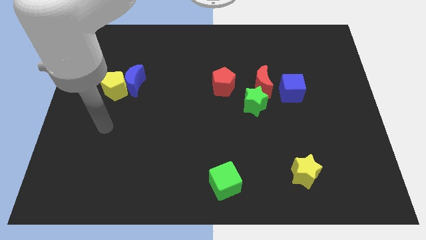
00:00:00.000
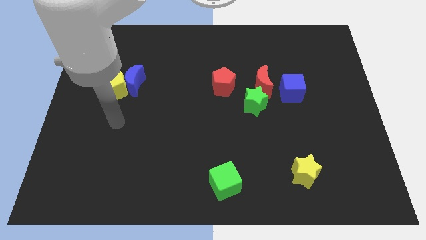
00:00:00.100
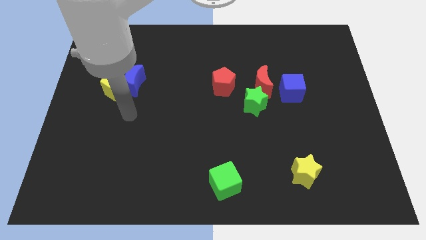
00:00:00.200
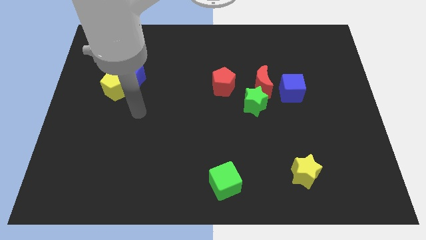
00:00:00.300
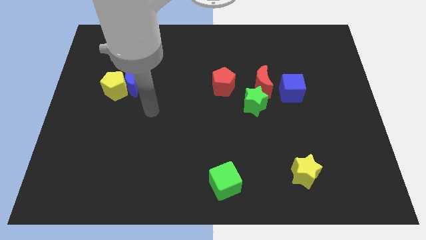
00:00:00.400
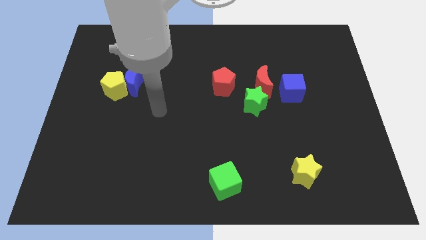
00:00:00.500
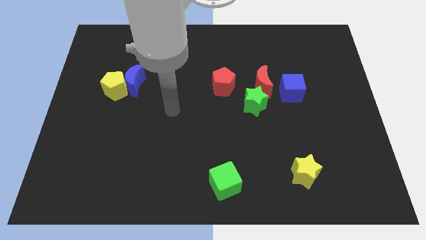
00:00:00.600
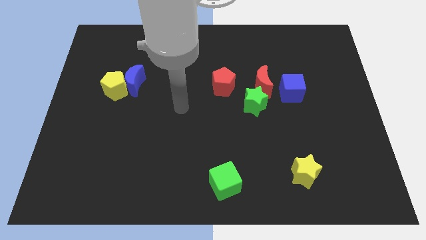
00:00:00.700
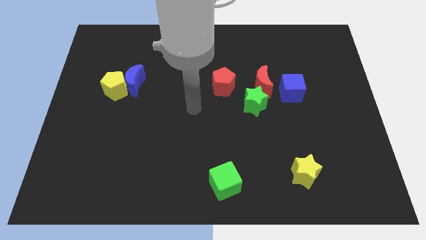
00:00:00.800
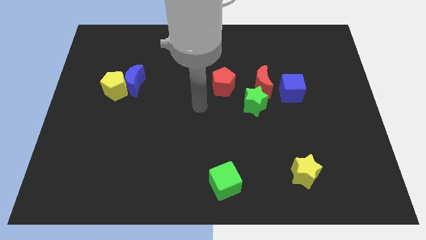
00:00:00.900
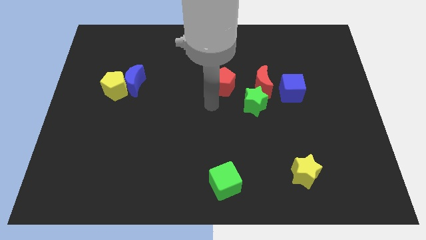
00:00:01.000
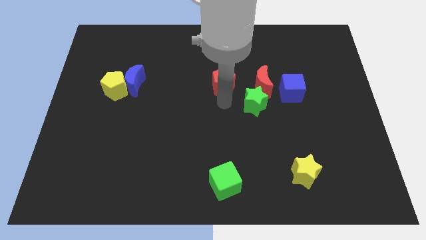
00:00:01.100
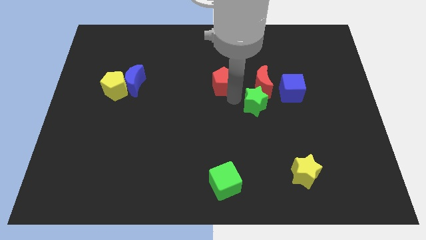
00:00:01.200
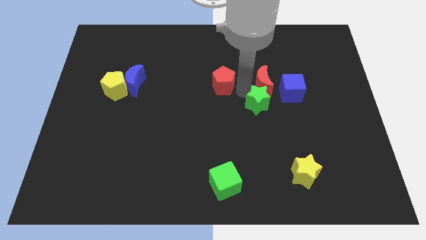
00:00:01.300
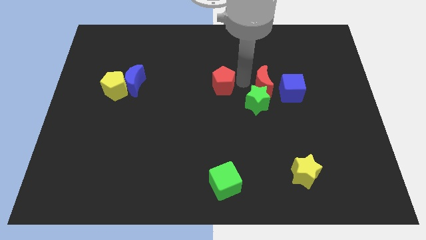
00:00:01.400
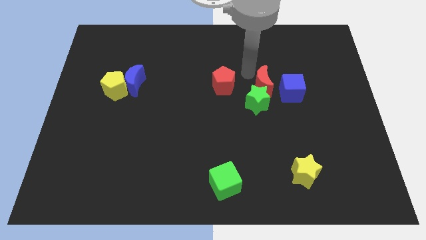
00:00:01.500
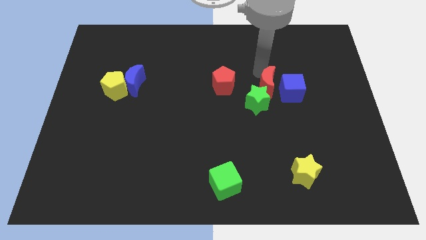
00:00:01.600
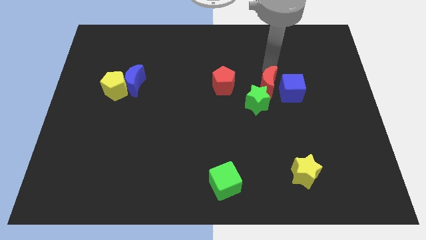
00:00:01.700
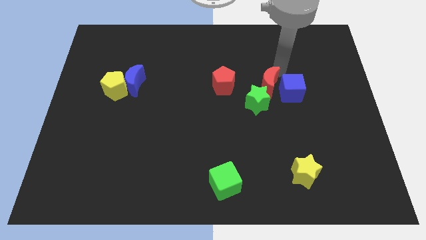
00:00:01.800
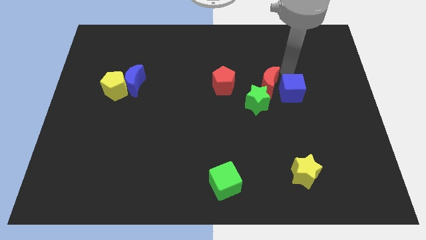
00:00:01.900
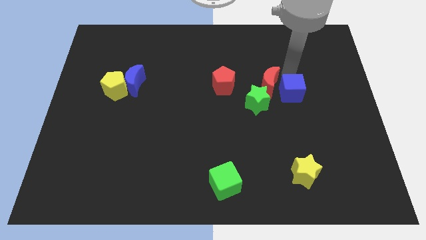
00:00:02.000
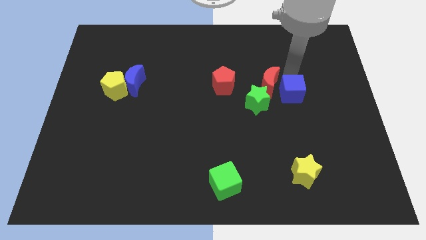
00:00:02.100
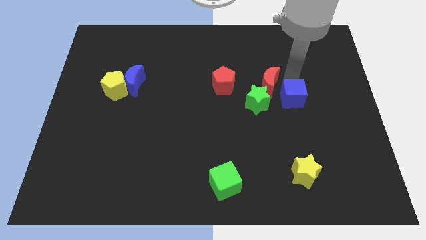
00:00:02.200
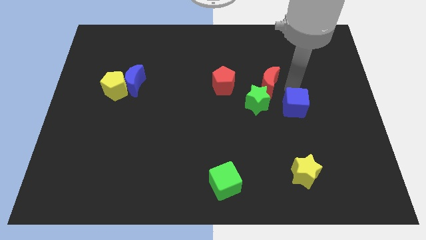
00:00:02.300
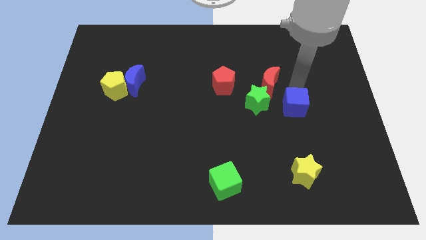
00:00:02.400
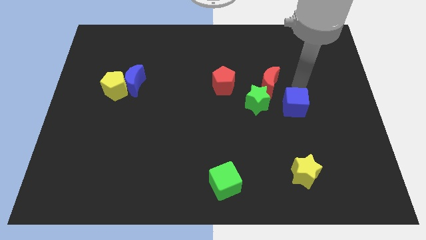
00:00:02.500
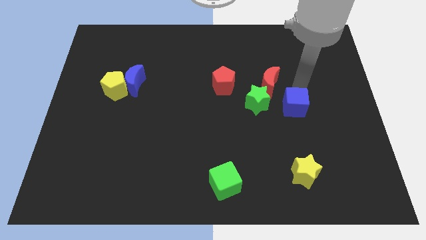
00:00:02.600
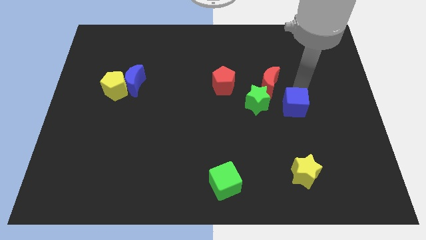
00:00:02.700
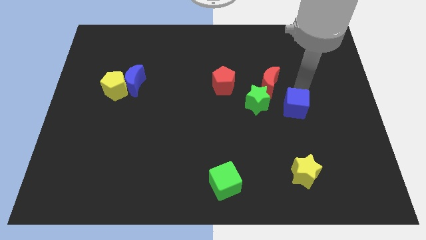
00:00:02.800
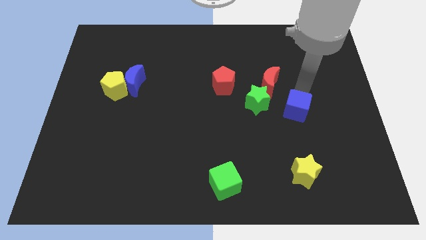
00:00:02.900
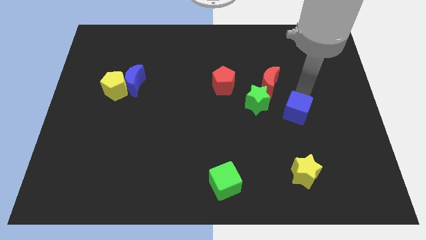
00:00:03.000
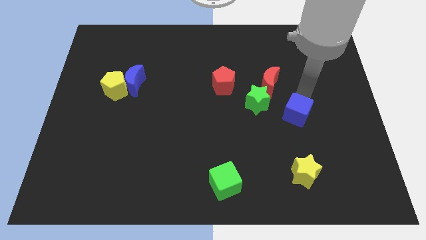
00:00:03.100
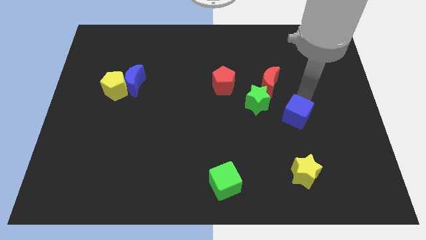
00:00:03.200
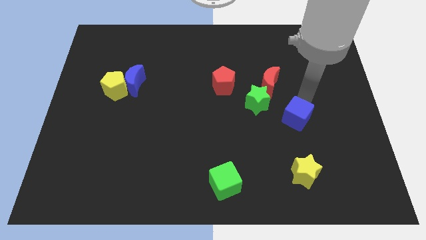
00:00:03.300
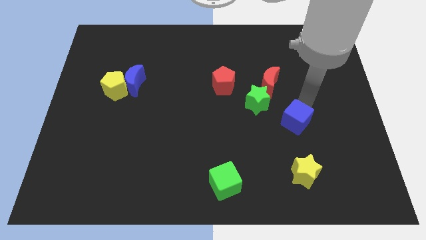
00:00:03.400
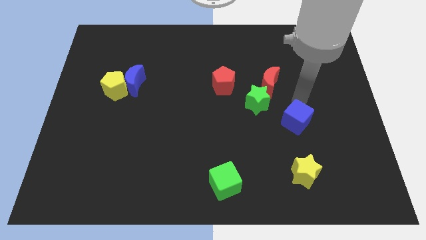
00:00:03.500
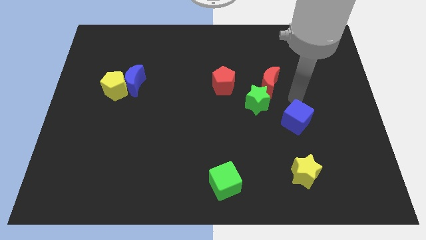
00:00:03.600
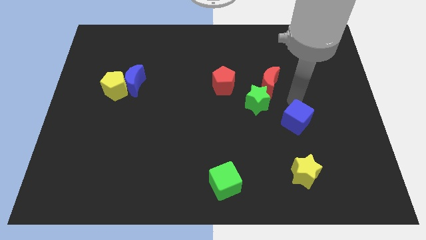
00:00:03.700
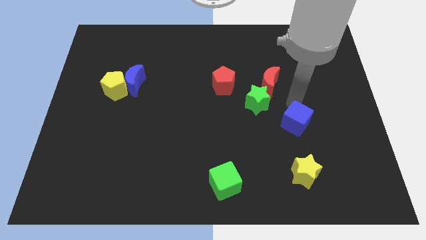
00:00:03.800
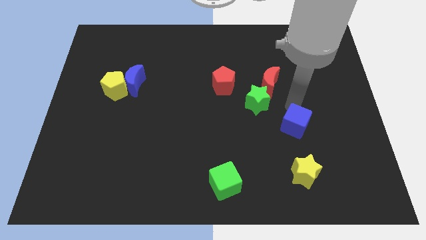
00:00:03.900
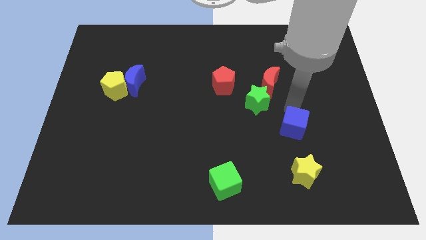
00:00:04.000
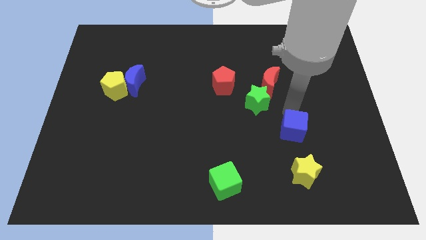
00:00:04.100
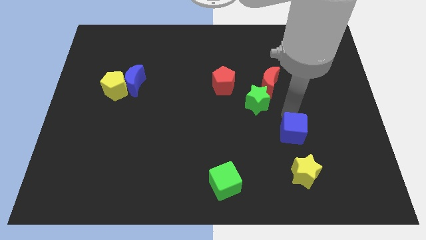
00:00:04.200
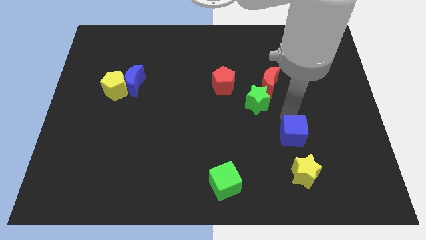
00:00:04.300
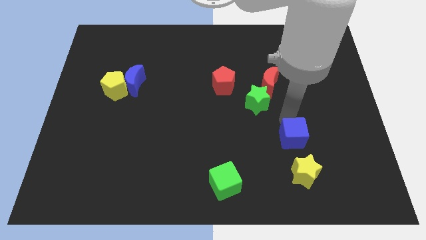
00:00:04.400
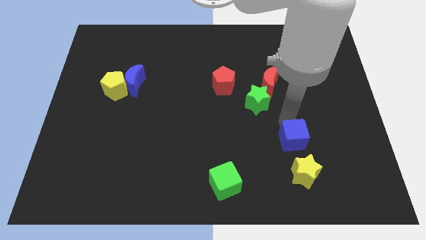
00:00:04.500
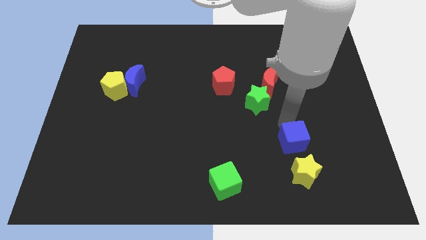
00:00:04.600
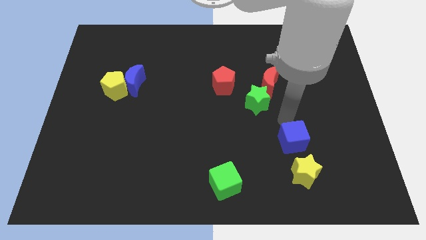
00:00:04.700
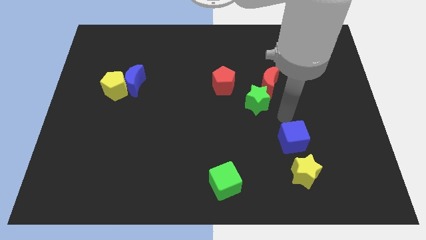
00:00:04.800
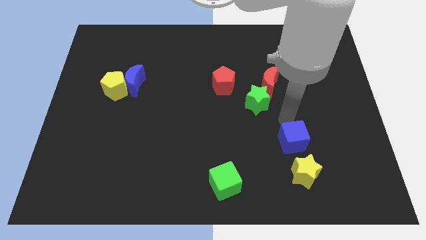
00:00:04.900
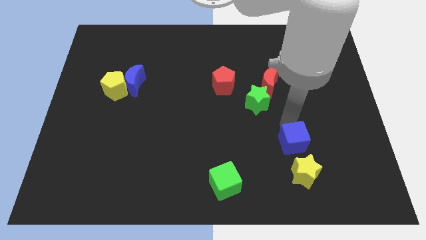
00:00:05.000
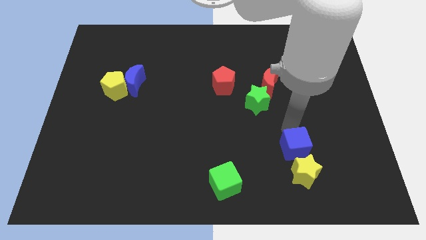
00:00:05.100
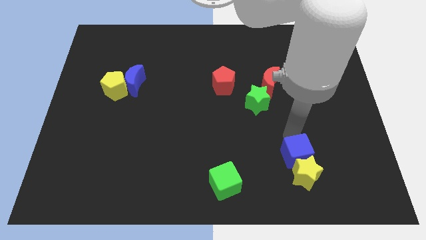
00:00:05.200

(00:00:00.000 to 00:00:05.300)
move the blue cube close to the yellow star

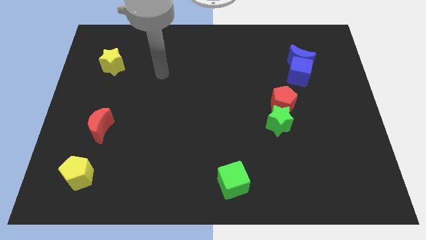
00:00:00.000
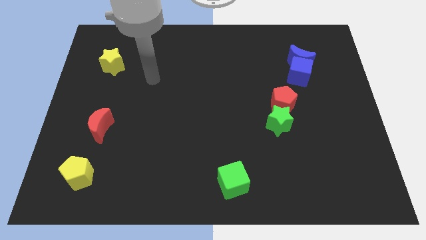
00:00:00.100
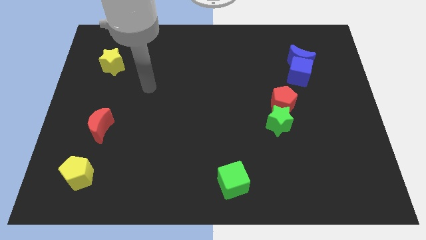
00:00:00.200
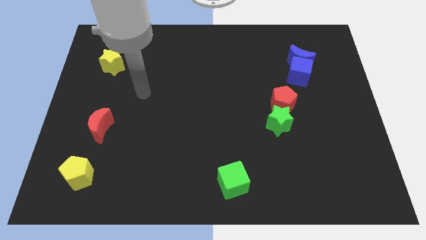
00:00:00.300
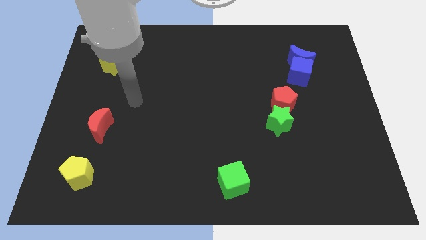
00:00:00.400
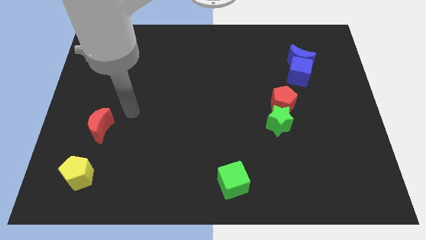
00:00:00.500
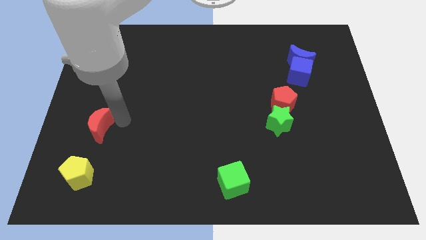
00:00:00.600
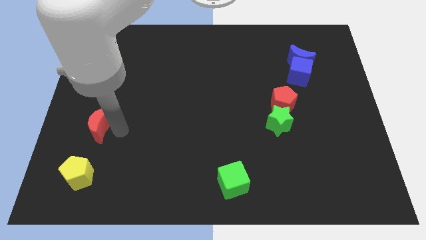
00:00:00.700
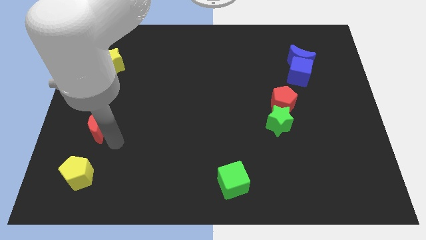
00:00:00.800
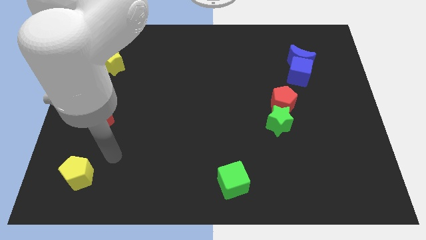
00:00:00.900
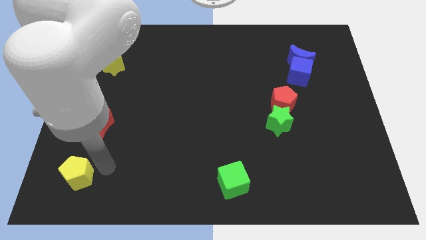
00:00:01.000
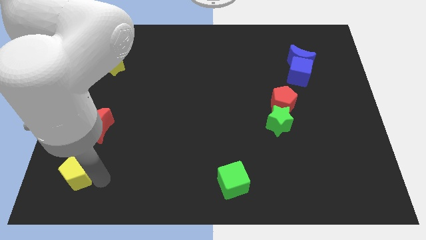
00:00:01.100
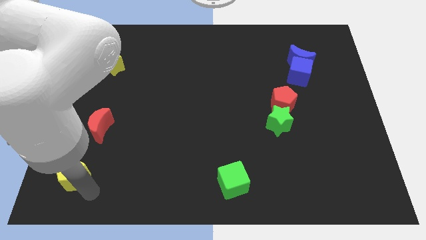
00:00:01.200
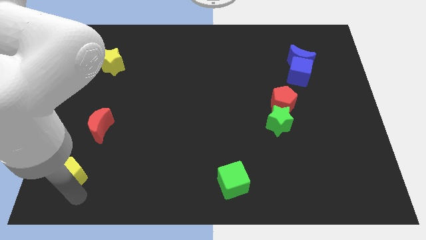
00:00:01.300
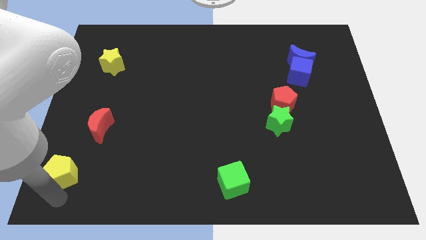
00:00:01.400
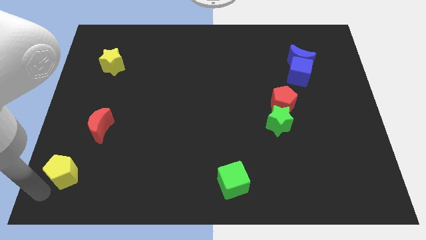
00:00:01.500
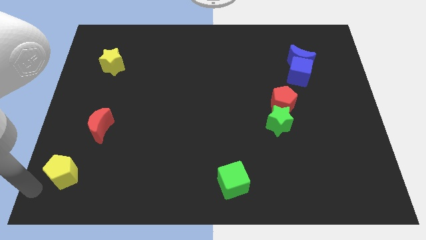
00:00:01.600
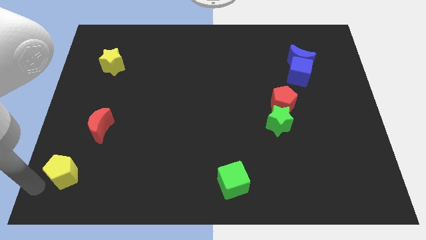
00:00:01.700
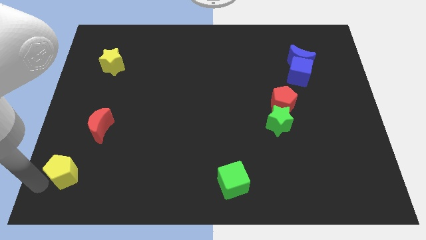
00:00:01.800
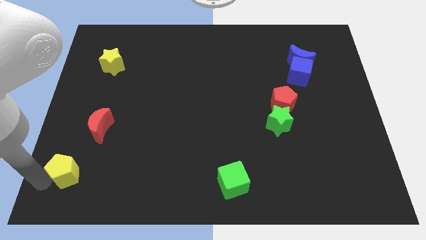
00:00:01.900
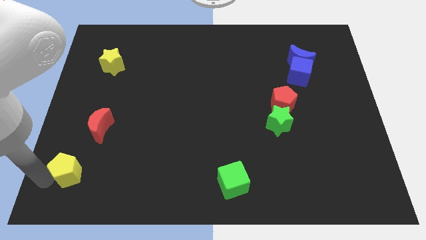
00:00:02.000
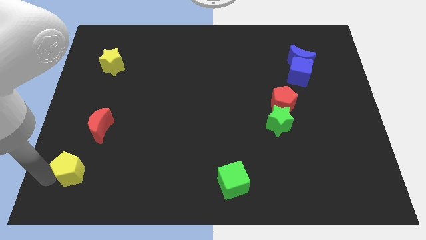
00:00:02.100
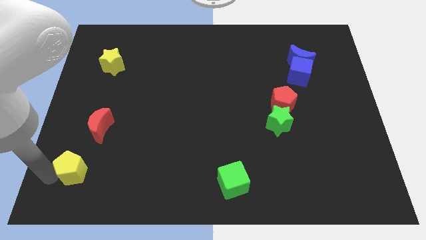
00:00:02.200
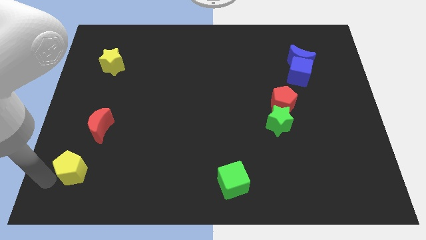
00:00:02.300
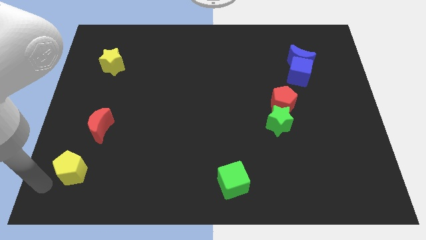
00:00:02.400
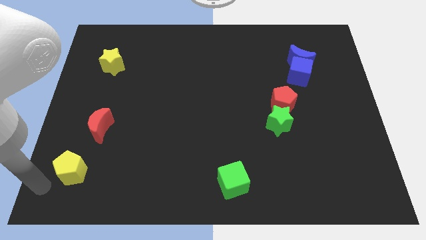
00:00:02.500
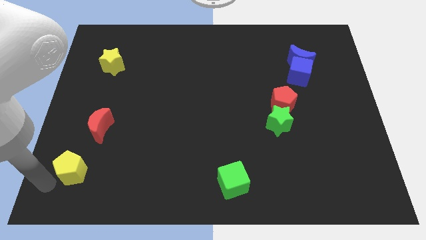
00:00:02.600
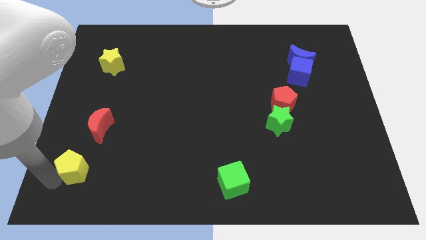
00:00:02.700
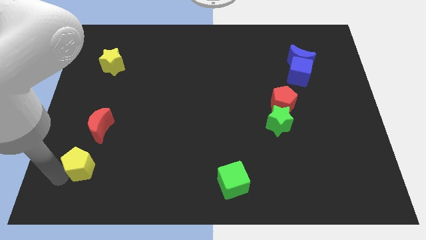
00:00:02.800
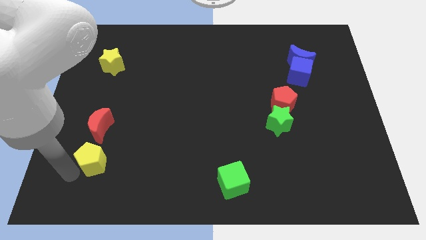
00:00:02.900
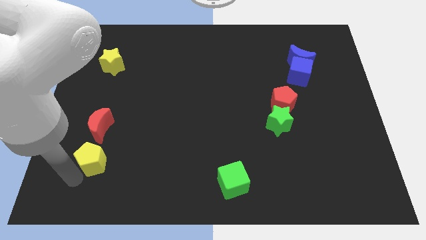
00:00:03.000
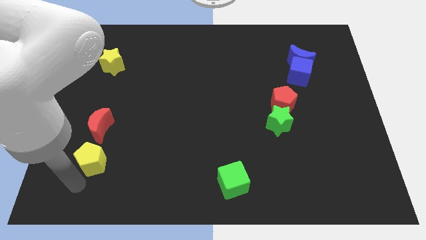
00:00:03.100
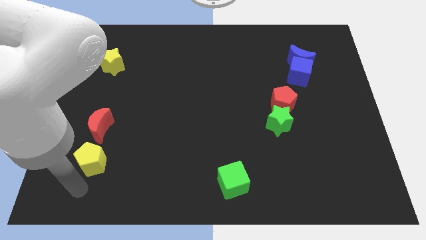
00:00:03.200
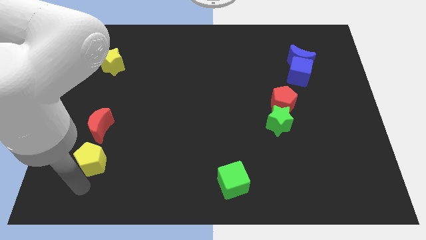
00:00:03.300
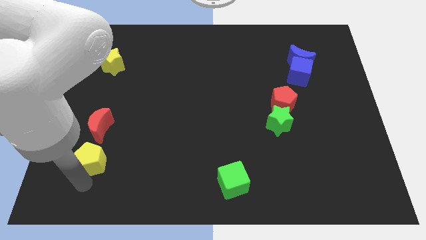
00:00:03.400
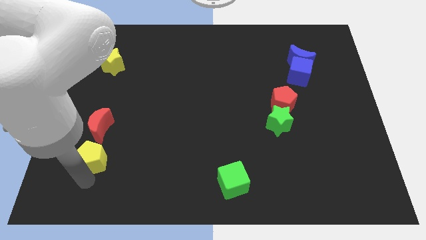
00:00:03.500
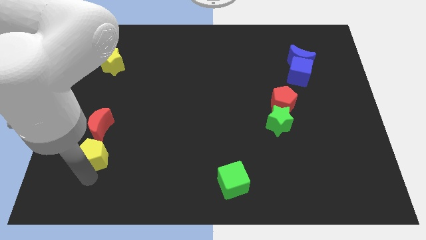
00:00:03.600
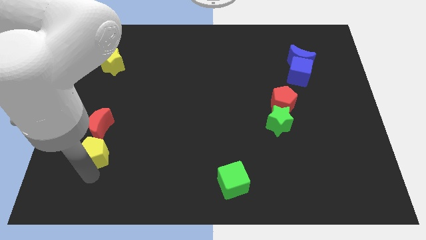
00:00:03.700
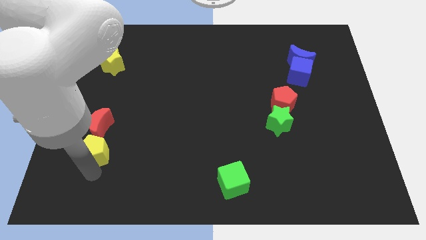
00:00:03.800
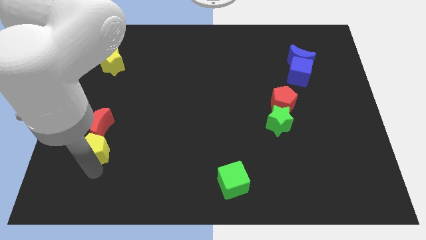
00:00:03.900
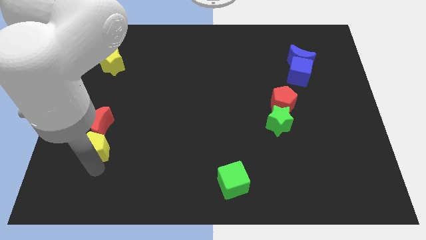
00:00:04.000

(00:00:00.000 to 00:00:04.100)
move the yellow pentagon next to the red moon
